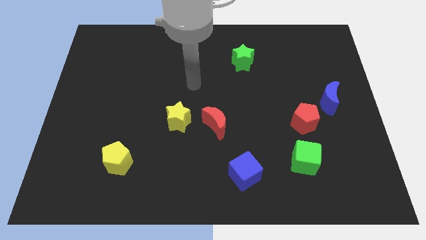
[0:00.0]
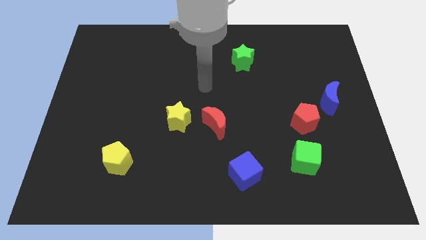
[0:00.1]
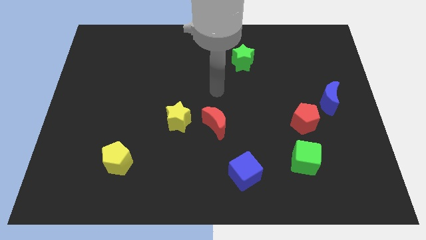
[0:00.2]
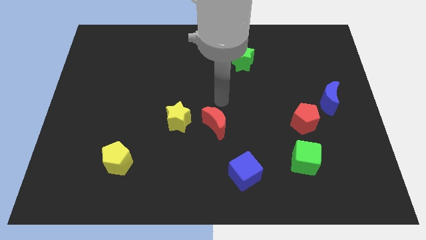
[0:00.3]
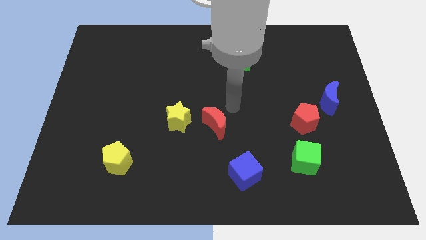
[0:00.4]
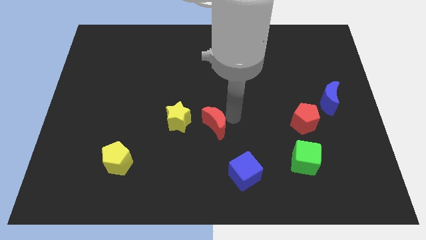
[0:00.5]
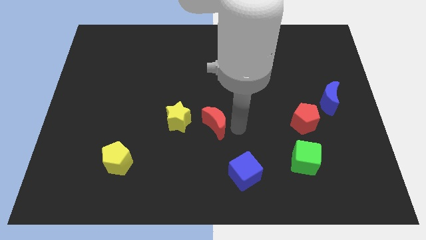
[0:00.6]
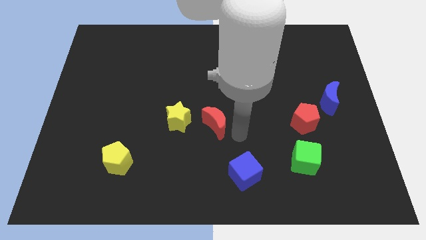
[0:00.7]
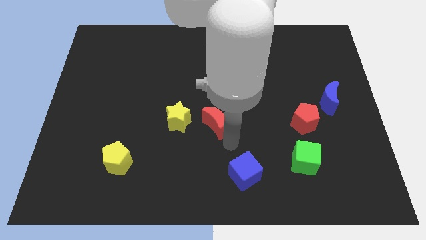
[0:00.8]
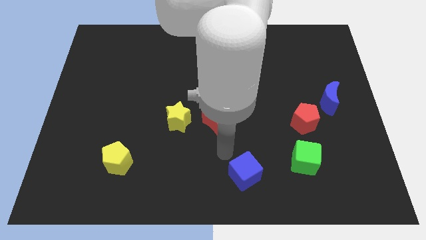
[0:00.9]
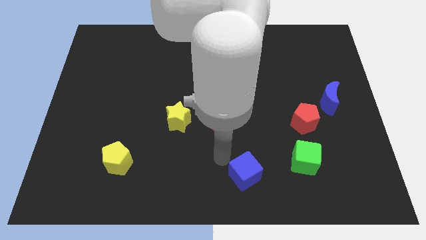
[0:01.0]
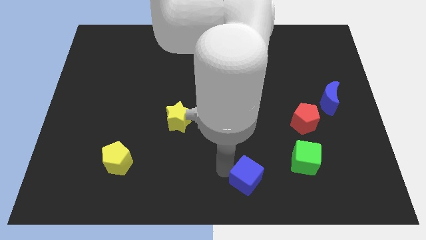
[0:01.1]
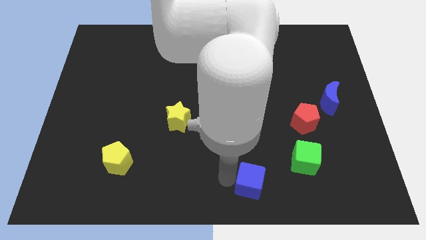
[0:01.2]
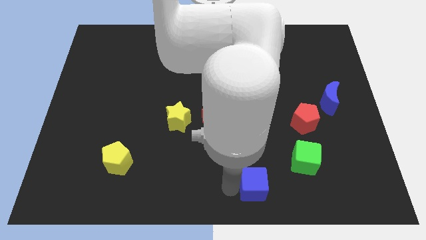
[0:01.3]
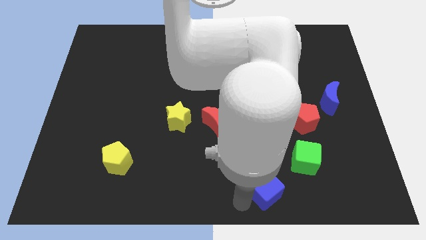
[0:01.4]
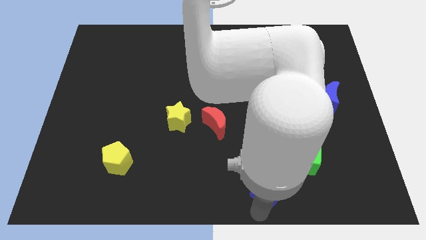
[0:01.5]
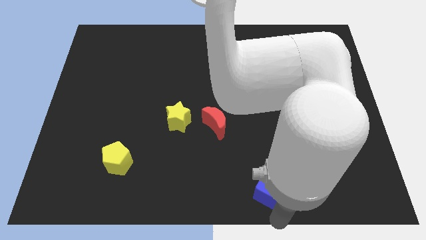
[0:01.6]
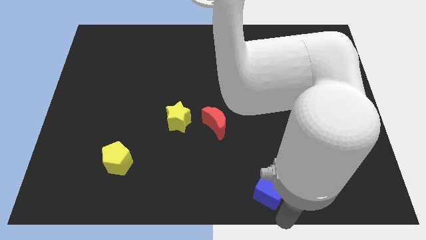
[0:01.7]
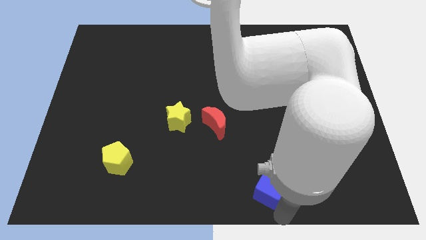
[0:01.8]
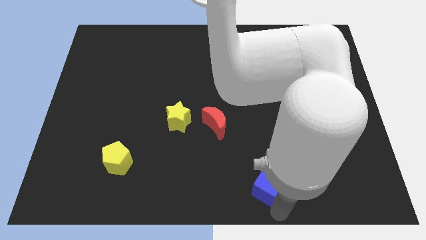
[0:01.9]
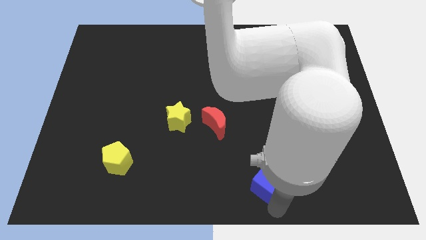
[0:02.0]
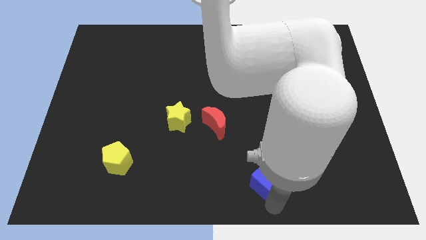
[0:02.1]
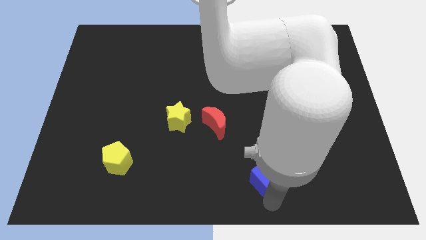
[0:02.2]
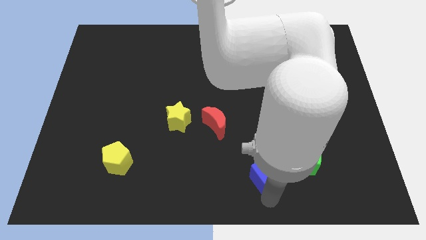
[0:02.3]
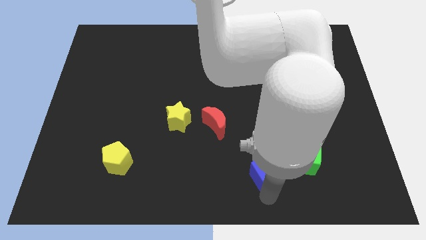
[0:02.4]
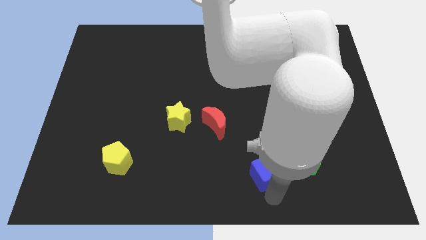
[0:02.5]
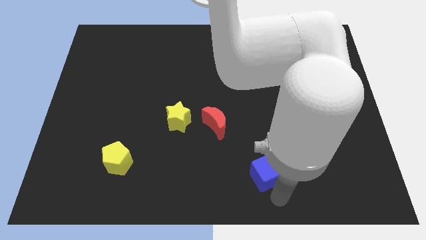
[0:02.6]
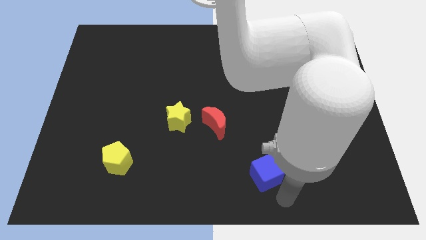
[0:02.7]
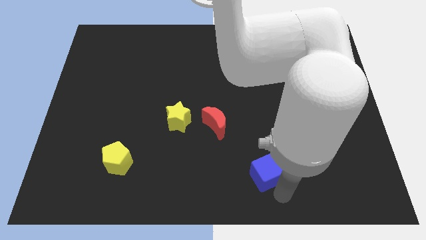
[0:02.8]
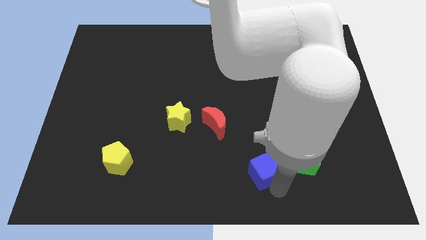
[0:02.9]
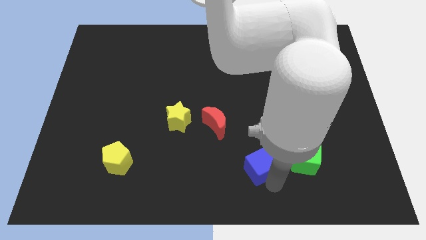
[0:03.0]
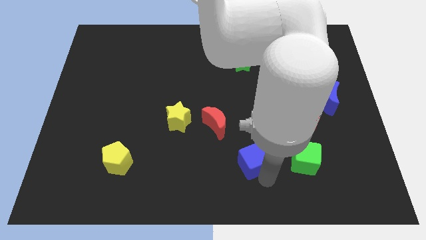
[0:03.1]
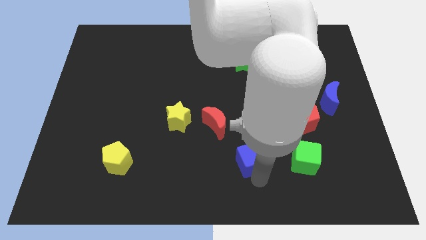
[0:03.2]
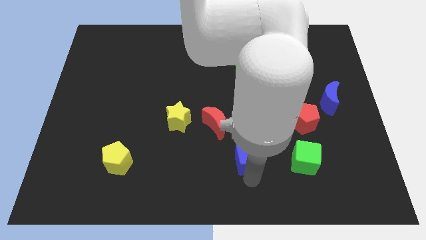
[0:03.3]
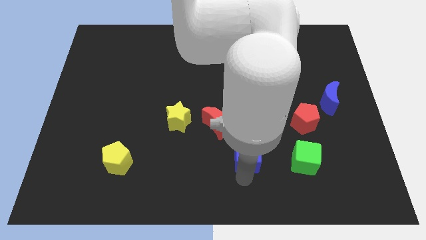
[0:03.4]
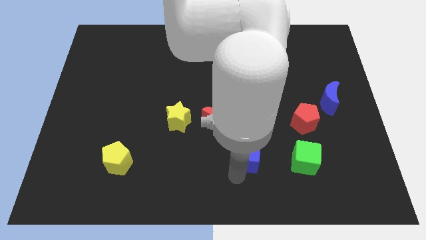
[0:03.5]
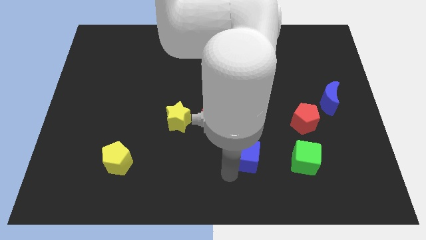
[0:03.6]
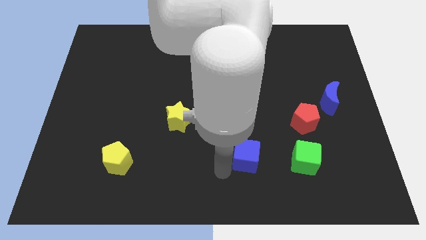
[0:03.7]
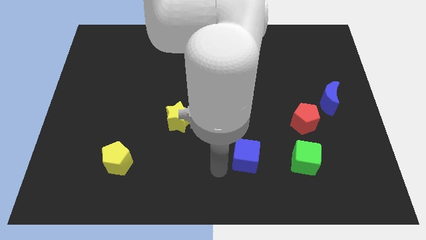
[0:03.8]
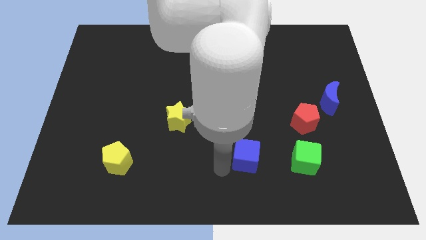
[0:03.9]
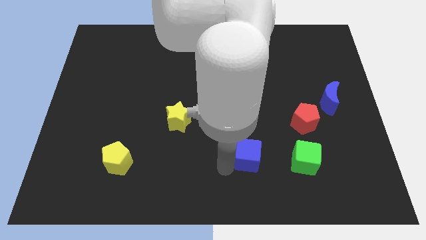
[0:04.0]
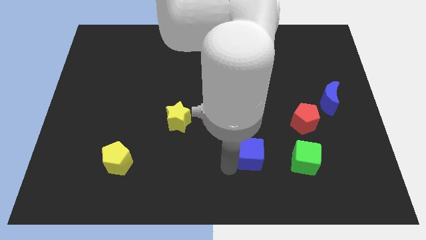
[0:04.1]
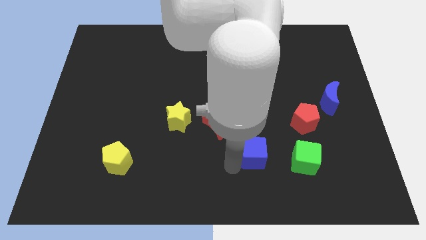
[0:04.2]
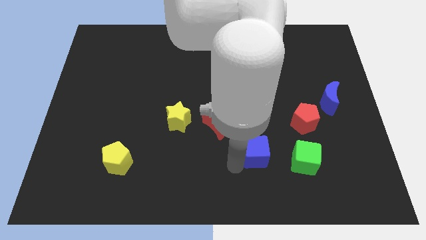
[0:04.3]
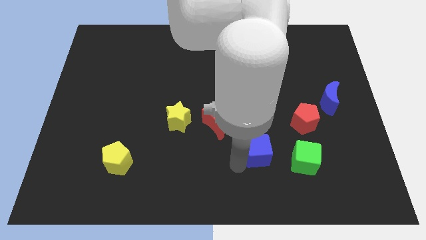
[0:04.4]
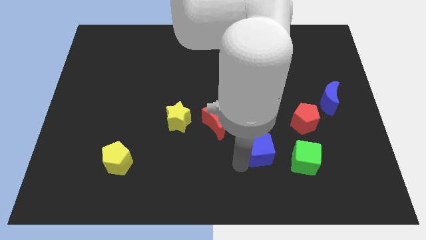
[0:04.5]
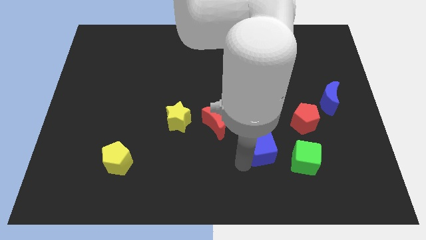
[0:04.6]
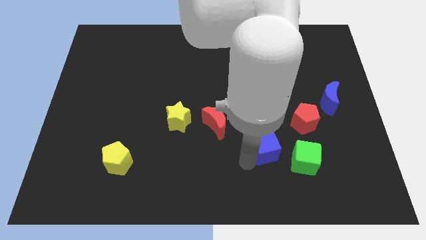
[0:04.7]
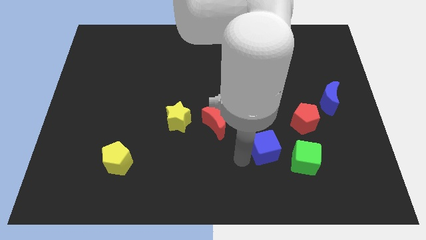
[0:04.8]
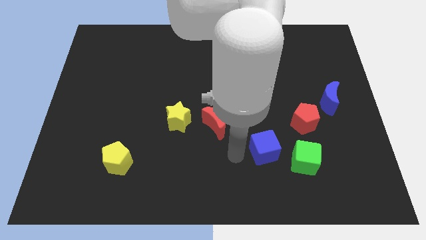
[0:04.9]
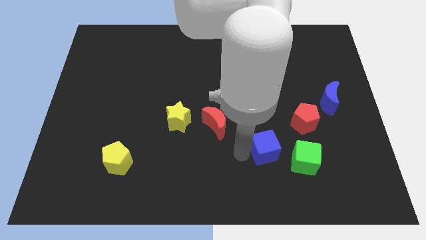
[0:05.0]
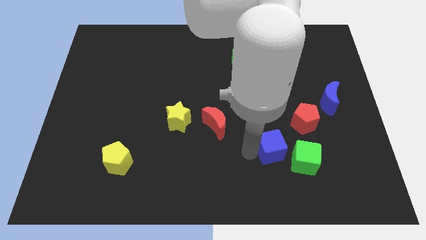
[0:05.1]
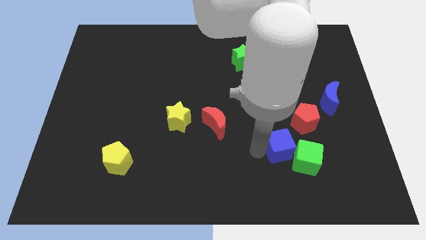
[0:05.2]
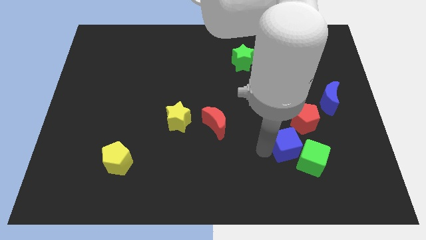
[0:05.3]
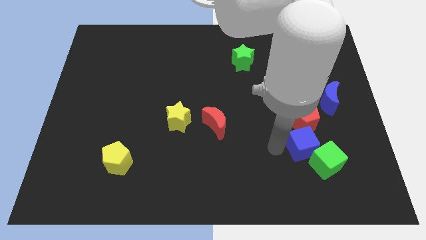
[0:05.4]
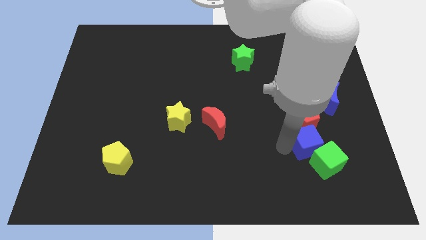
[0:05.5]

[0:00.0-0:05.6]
put the blue cube diagonally down and to the right of the red pentagon

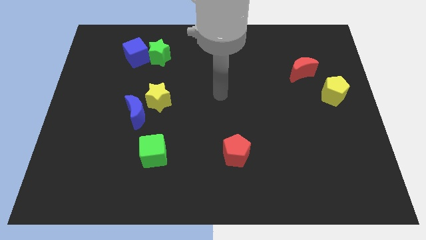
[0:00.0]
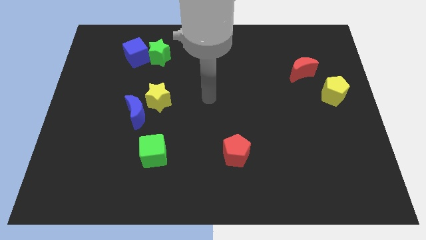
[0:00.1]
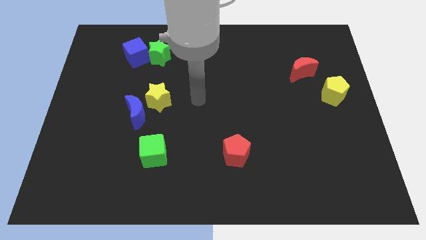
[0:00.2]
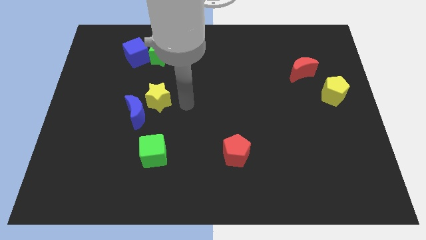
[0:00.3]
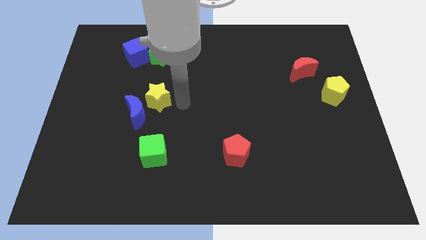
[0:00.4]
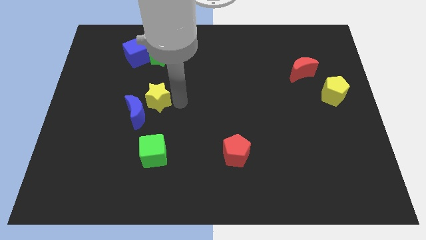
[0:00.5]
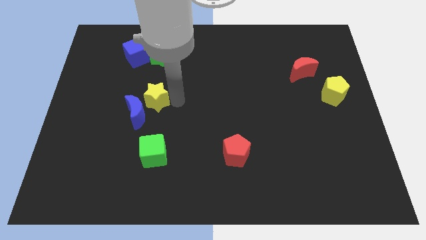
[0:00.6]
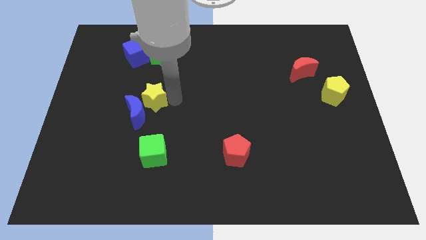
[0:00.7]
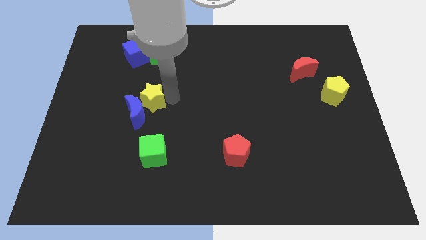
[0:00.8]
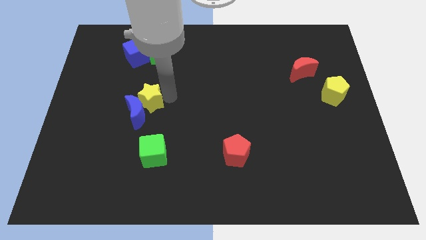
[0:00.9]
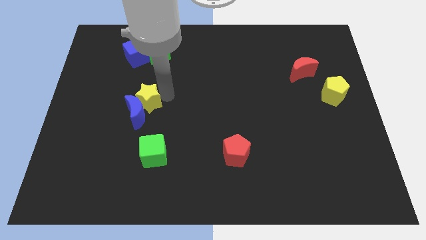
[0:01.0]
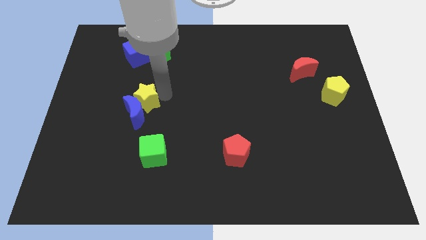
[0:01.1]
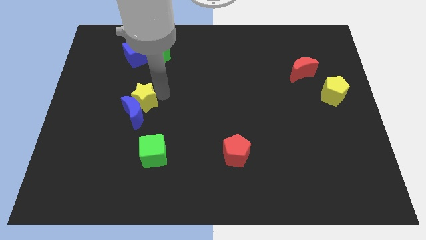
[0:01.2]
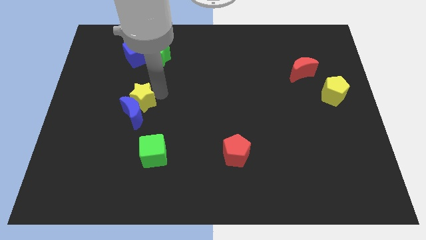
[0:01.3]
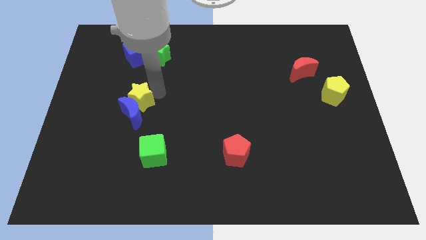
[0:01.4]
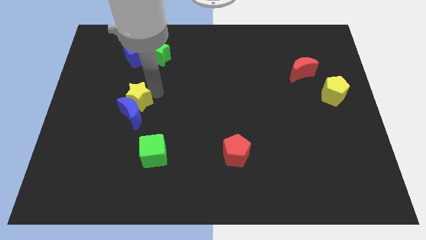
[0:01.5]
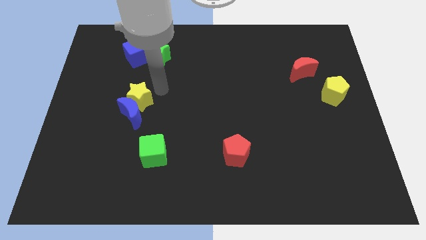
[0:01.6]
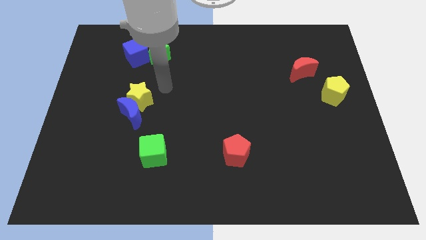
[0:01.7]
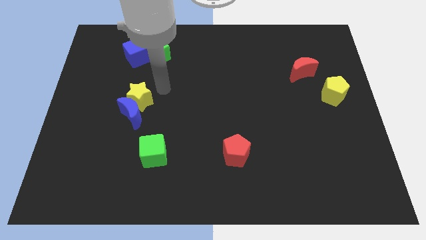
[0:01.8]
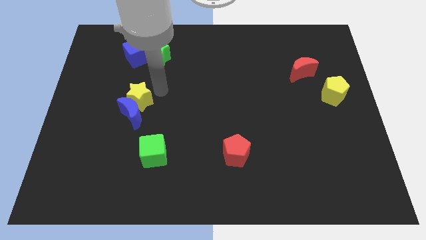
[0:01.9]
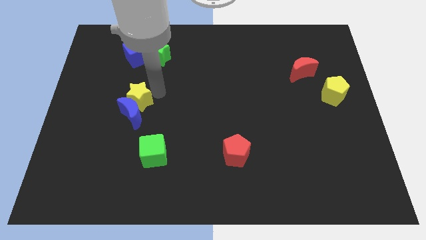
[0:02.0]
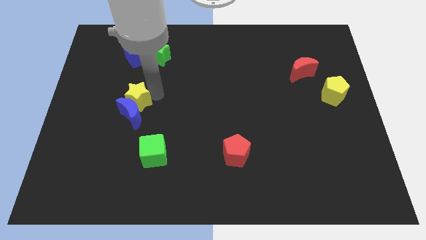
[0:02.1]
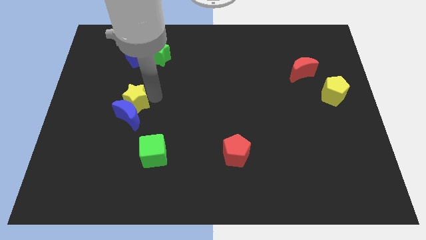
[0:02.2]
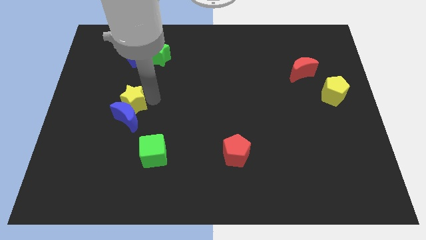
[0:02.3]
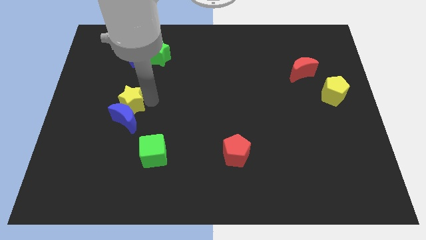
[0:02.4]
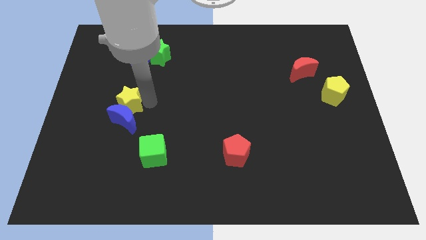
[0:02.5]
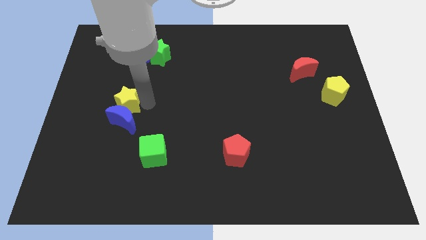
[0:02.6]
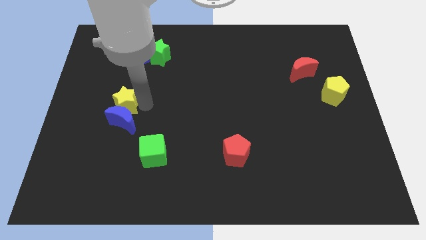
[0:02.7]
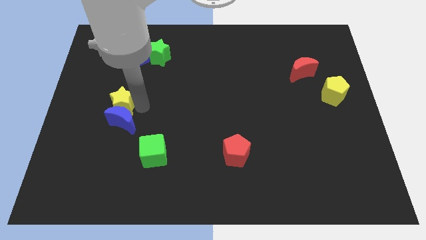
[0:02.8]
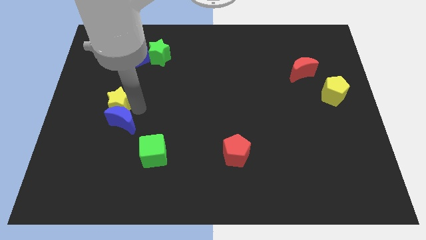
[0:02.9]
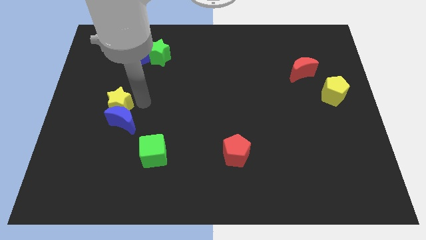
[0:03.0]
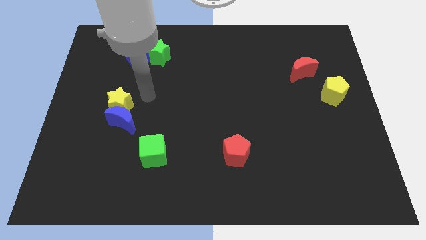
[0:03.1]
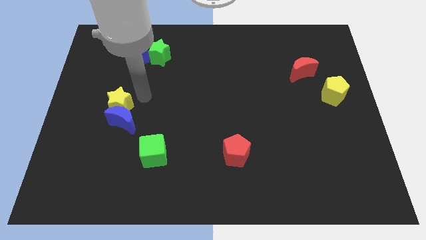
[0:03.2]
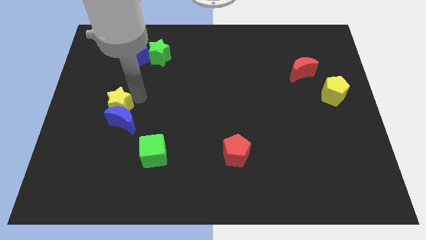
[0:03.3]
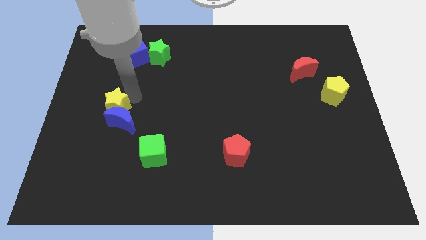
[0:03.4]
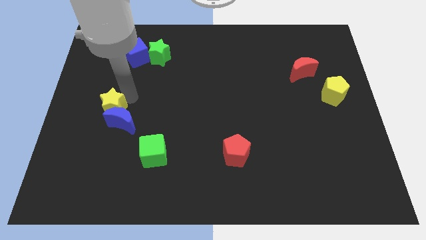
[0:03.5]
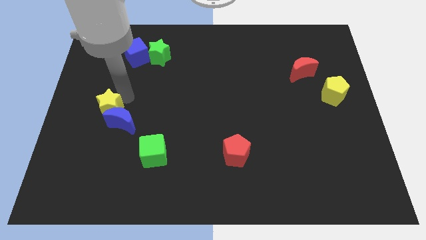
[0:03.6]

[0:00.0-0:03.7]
slide the yellow star to the left side of the blue moon
